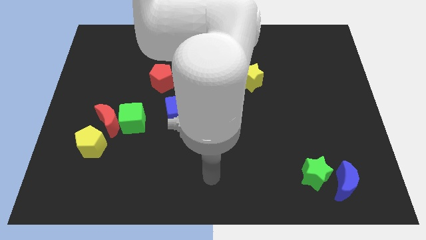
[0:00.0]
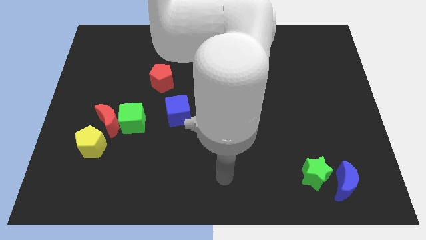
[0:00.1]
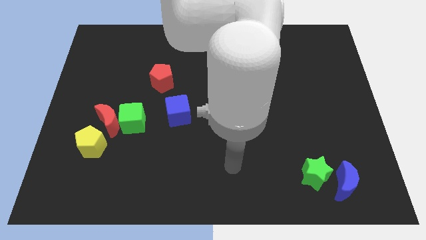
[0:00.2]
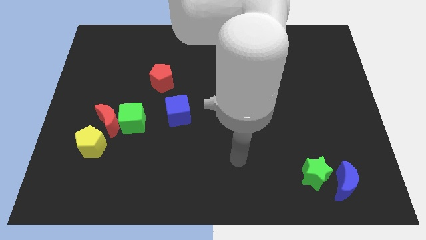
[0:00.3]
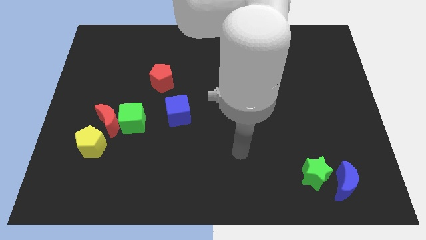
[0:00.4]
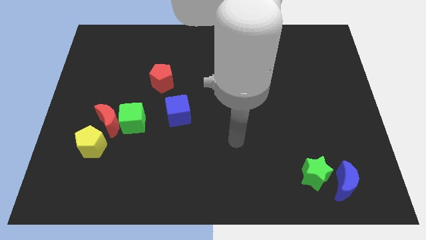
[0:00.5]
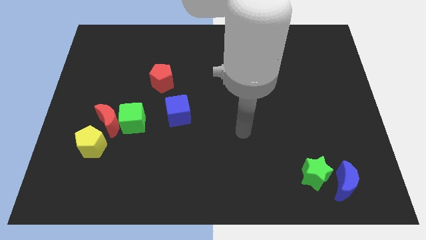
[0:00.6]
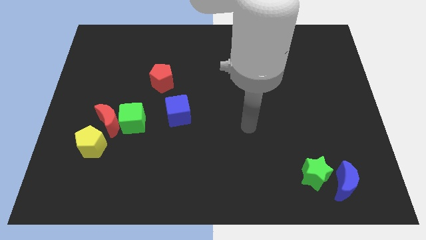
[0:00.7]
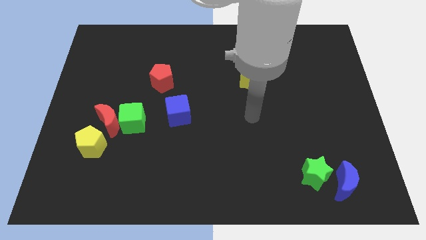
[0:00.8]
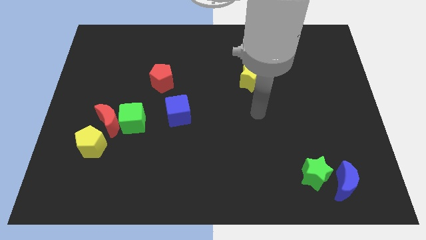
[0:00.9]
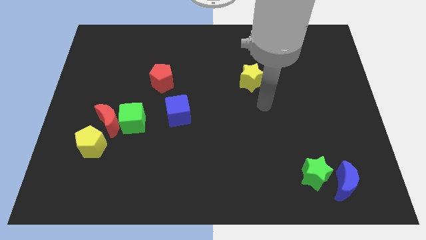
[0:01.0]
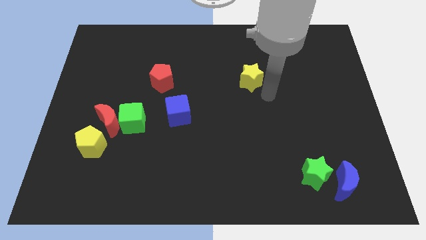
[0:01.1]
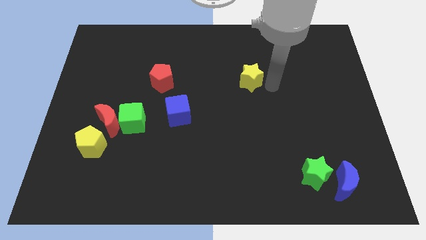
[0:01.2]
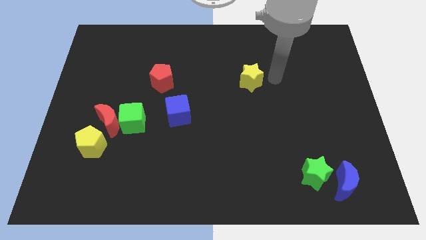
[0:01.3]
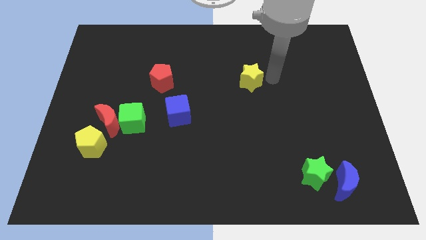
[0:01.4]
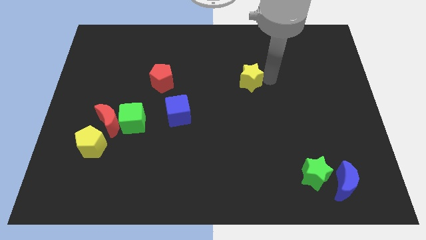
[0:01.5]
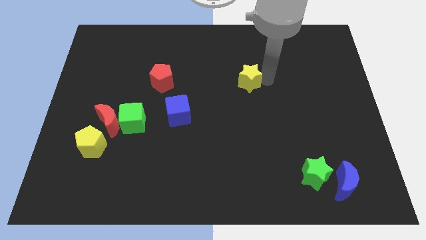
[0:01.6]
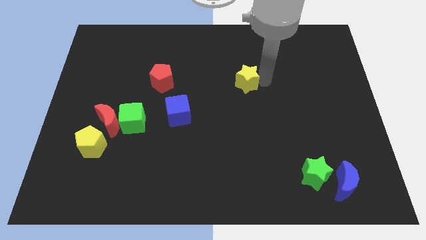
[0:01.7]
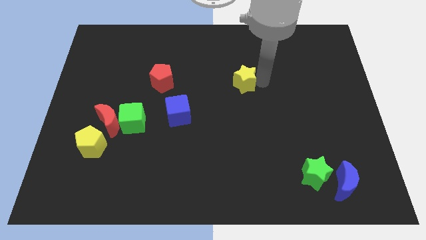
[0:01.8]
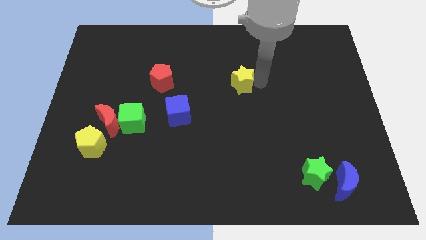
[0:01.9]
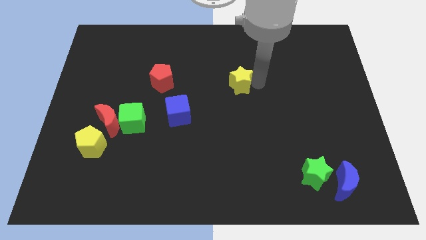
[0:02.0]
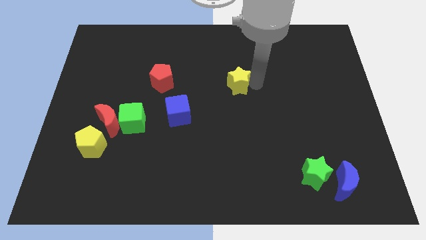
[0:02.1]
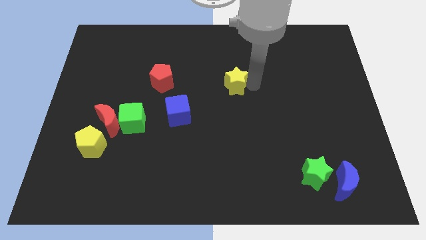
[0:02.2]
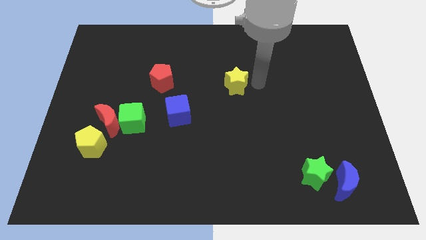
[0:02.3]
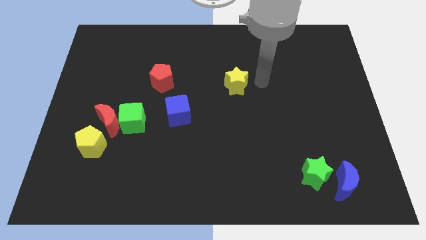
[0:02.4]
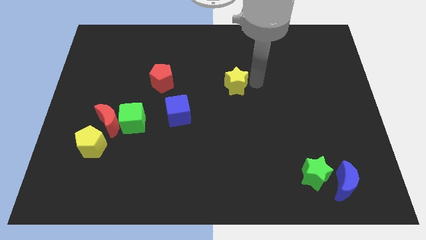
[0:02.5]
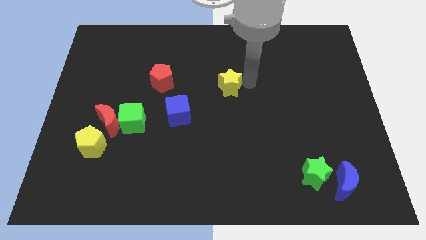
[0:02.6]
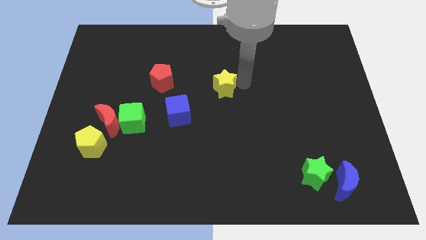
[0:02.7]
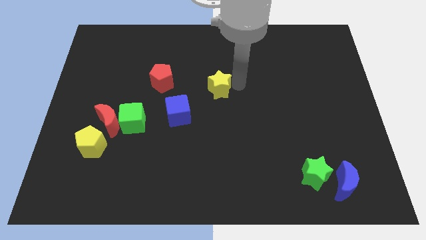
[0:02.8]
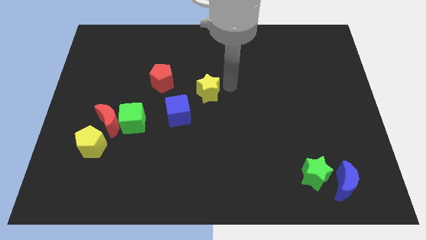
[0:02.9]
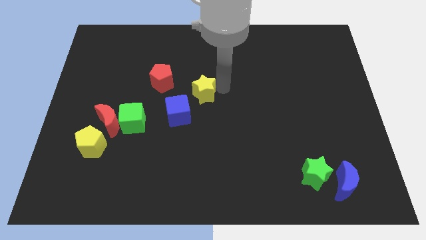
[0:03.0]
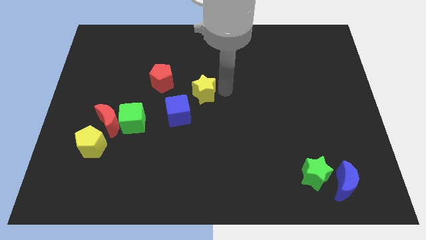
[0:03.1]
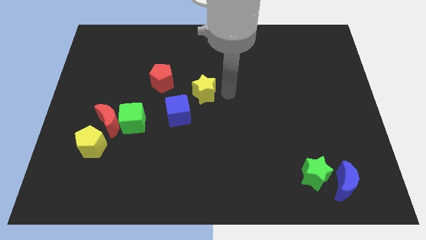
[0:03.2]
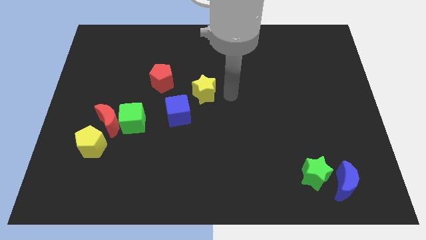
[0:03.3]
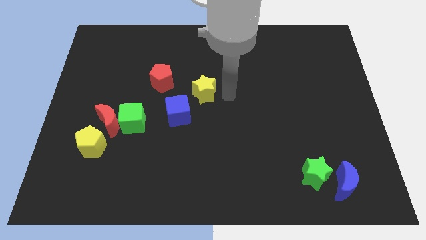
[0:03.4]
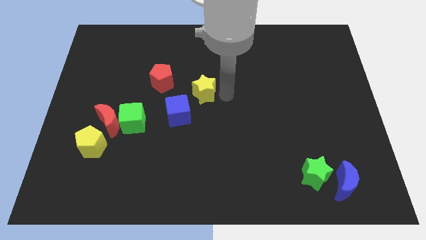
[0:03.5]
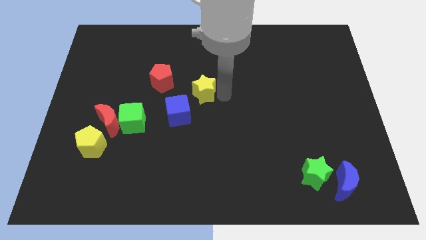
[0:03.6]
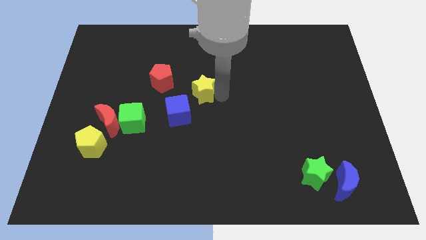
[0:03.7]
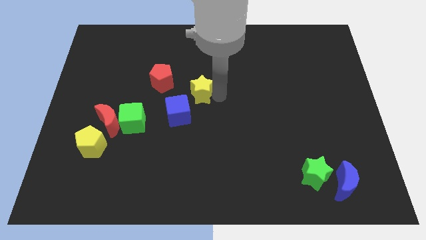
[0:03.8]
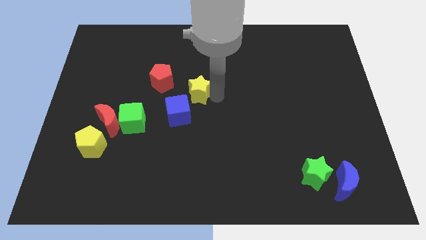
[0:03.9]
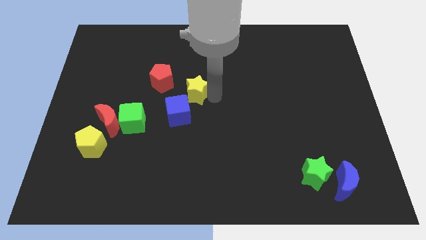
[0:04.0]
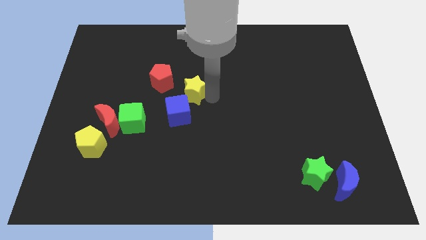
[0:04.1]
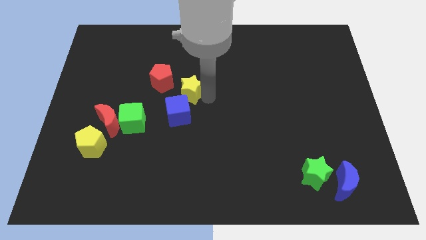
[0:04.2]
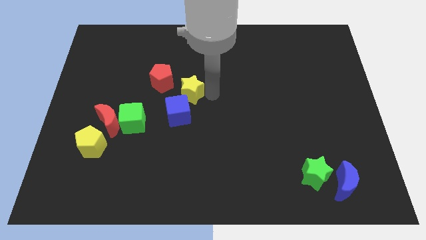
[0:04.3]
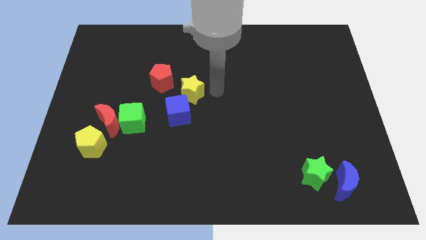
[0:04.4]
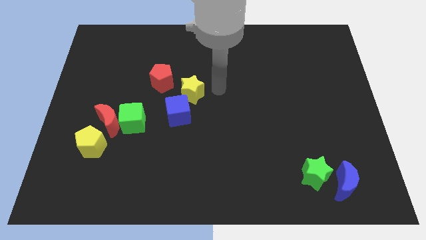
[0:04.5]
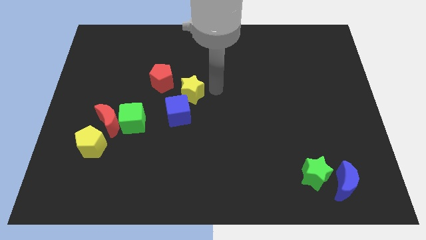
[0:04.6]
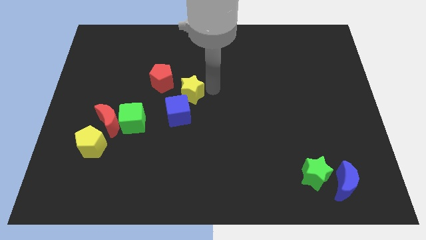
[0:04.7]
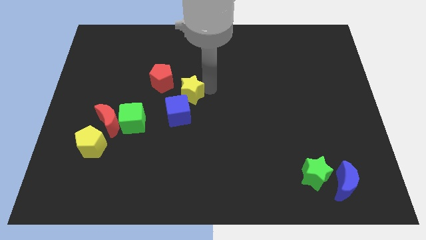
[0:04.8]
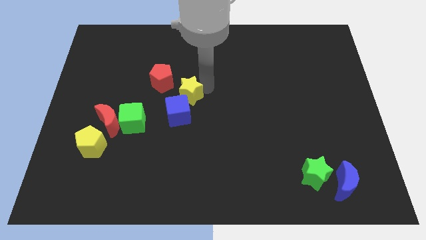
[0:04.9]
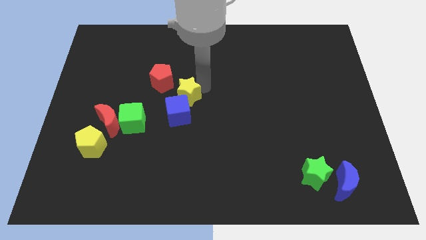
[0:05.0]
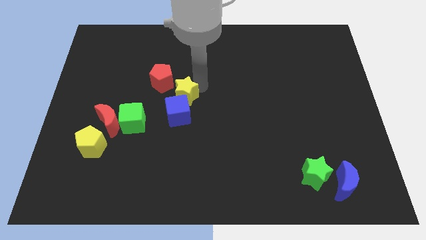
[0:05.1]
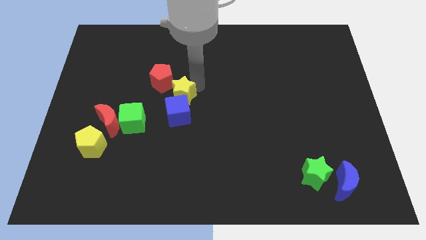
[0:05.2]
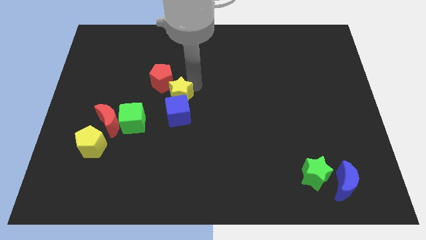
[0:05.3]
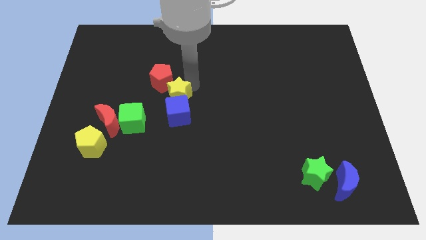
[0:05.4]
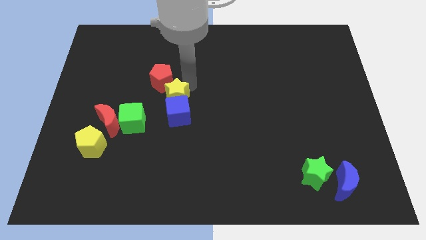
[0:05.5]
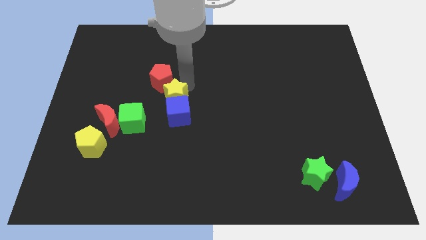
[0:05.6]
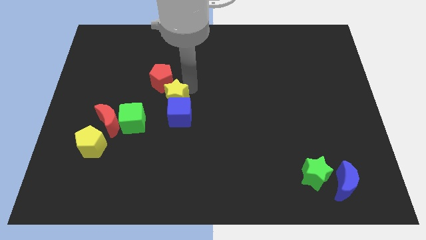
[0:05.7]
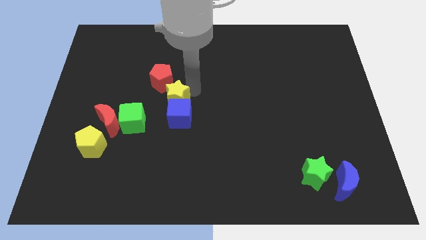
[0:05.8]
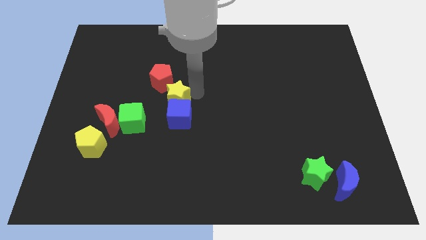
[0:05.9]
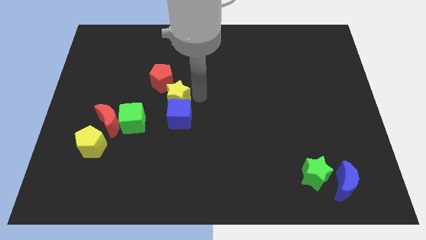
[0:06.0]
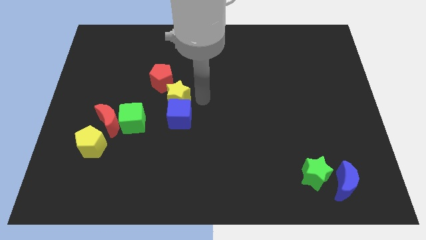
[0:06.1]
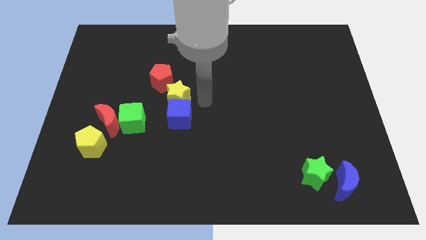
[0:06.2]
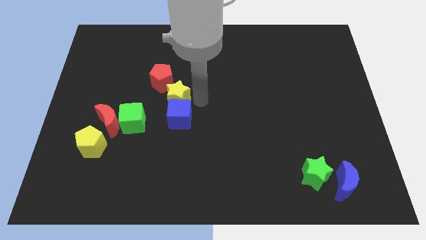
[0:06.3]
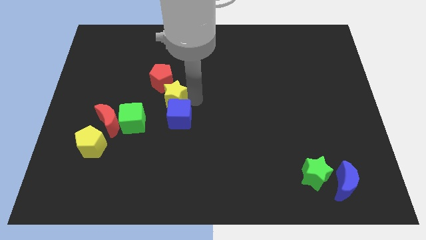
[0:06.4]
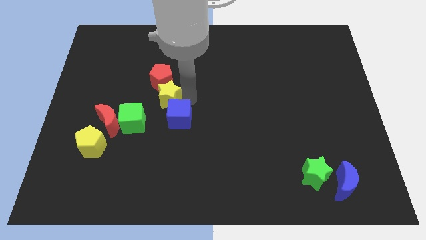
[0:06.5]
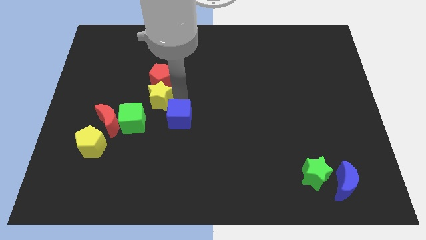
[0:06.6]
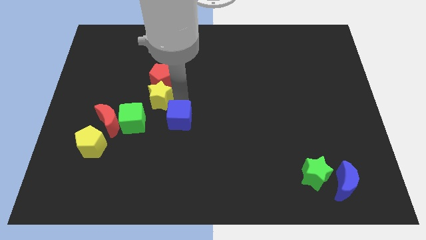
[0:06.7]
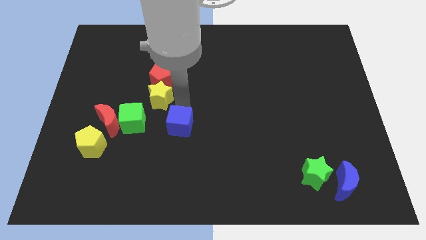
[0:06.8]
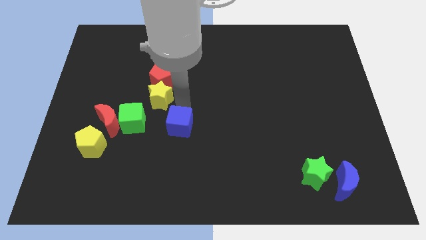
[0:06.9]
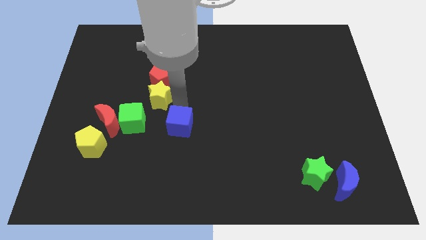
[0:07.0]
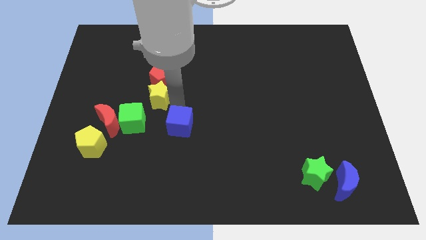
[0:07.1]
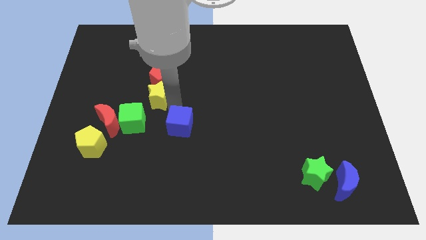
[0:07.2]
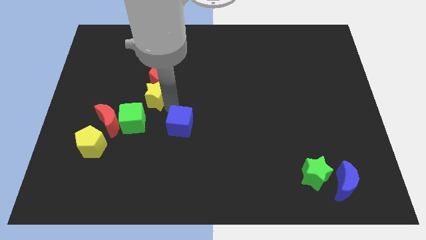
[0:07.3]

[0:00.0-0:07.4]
slide the yellow star to the top side of the green cube
